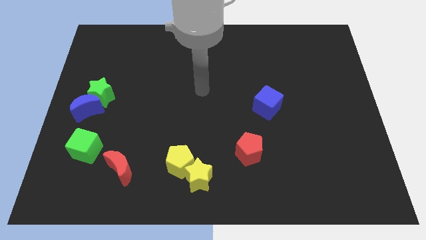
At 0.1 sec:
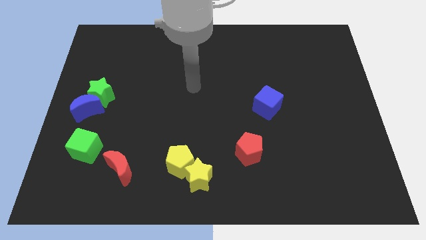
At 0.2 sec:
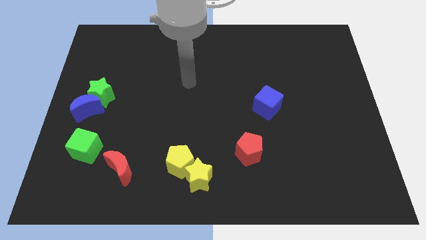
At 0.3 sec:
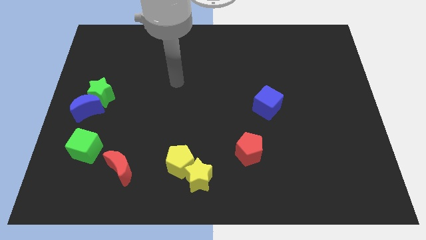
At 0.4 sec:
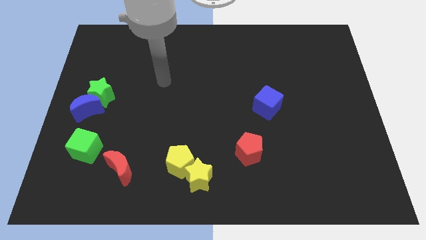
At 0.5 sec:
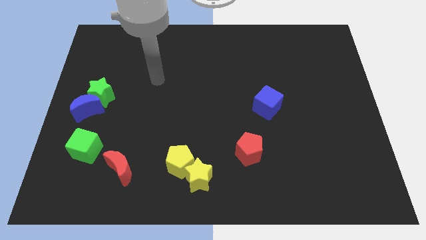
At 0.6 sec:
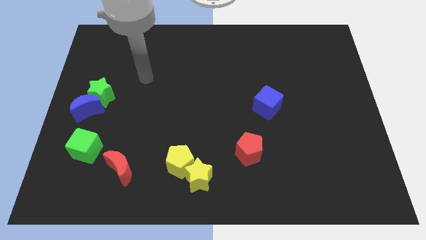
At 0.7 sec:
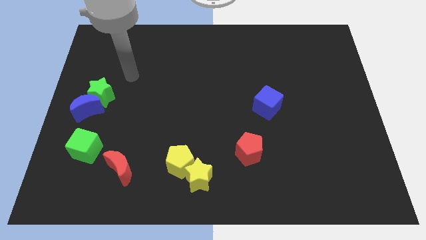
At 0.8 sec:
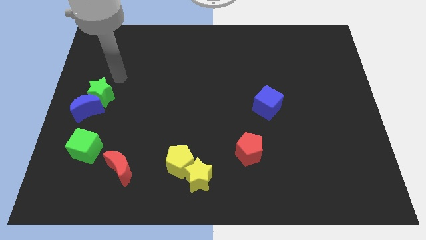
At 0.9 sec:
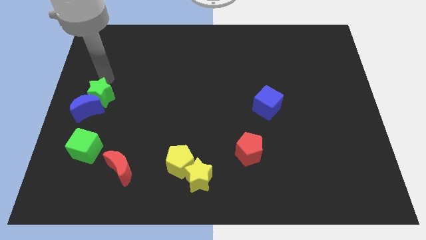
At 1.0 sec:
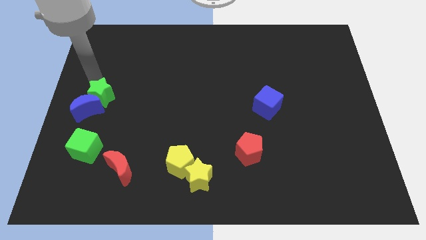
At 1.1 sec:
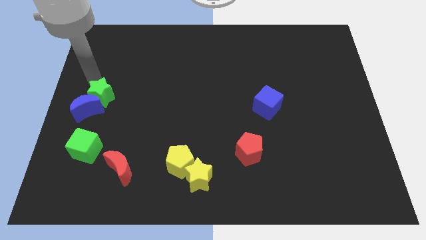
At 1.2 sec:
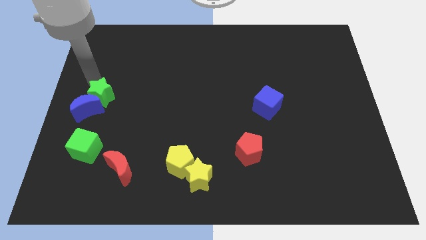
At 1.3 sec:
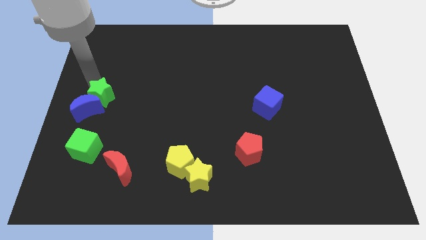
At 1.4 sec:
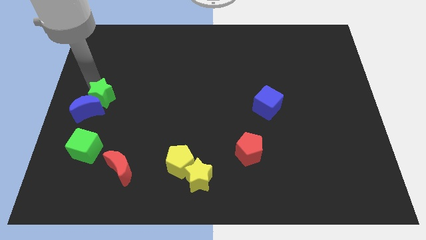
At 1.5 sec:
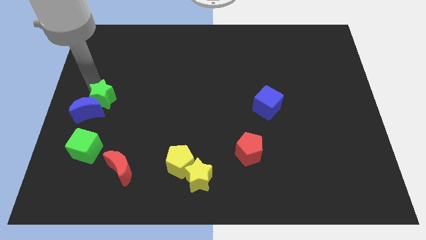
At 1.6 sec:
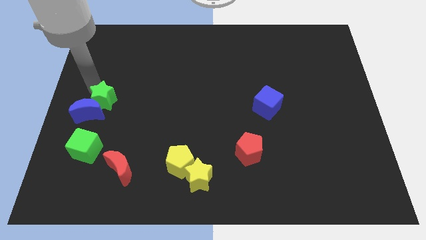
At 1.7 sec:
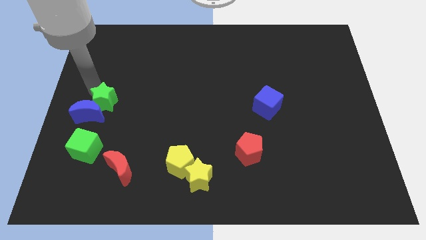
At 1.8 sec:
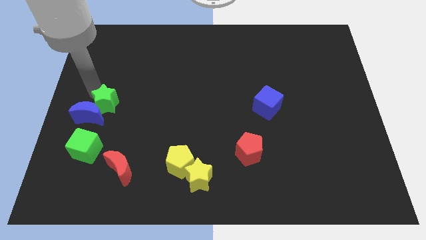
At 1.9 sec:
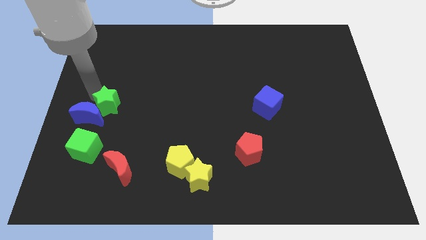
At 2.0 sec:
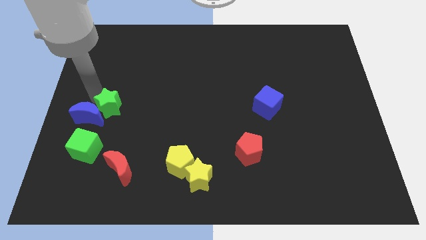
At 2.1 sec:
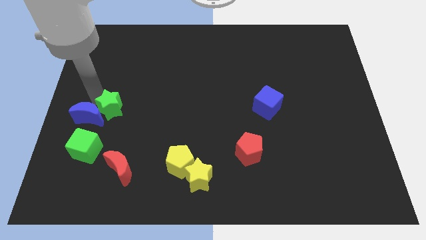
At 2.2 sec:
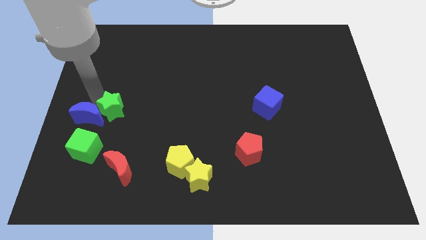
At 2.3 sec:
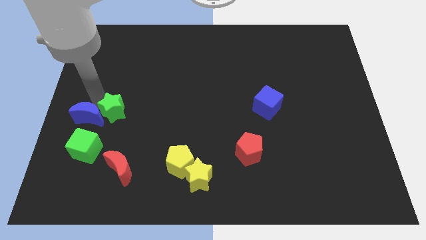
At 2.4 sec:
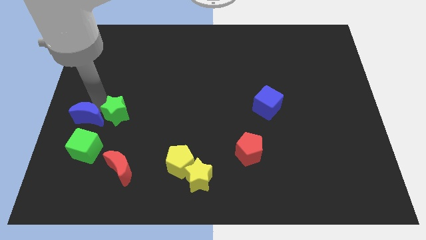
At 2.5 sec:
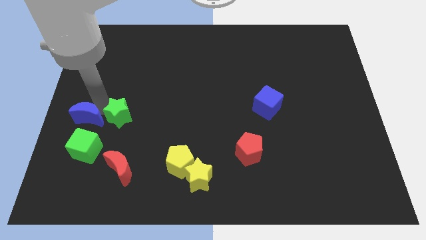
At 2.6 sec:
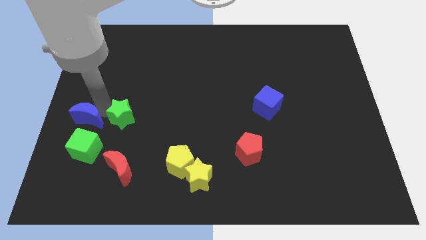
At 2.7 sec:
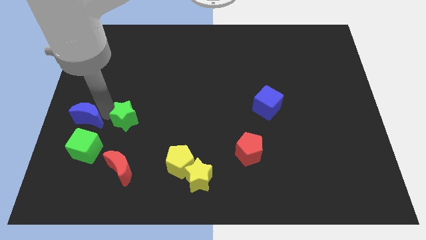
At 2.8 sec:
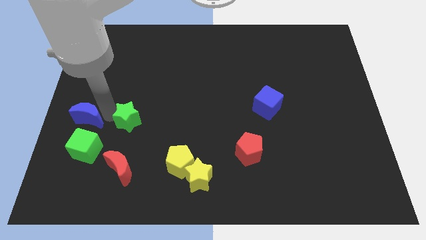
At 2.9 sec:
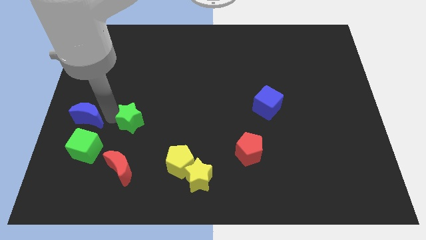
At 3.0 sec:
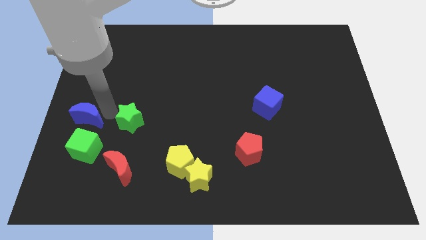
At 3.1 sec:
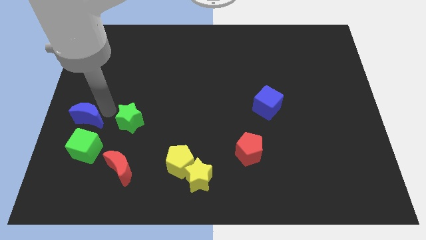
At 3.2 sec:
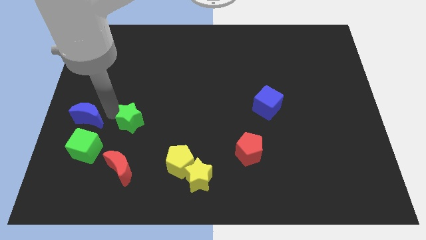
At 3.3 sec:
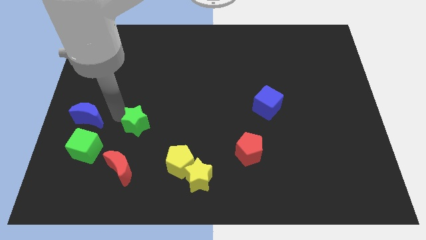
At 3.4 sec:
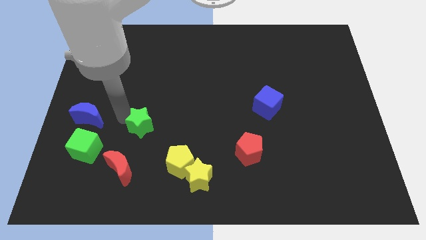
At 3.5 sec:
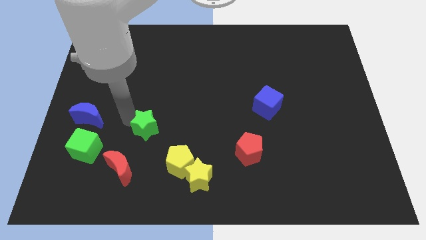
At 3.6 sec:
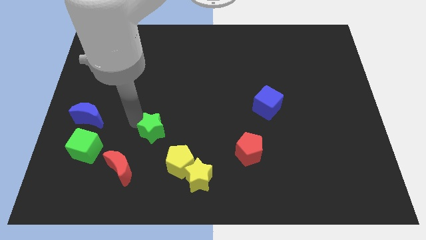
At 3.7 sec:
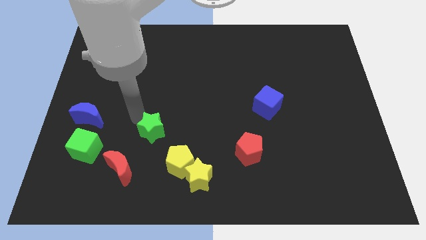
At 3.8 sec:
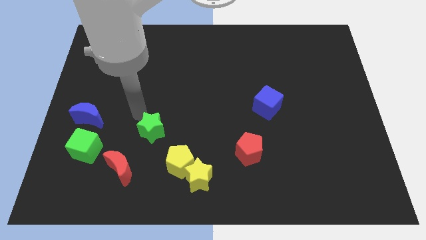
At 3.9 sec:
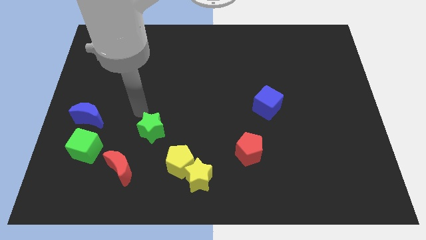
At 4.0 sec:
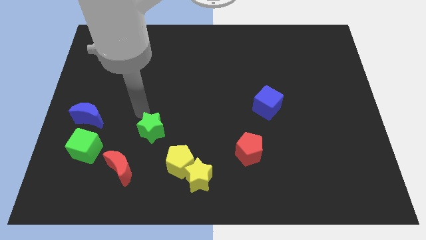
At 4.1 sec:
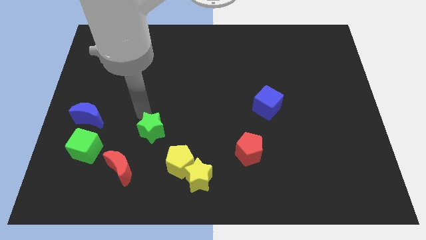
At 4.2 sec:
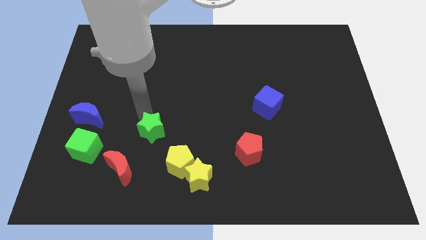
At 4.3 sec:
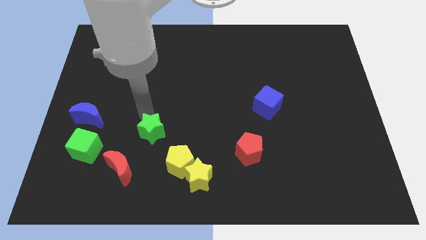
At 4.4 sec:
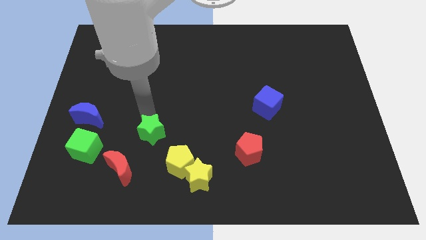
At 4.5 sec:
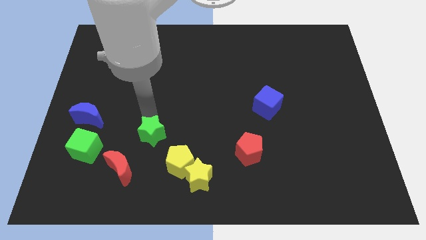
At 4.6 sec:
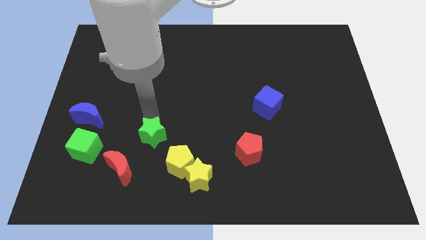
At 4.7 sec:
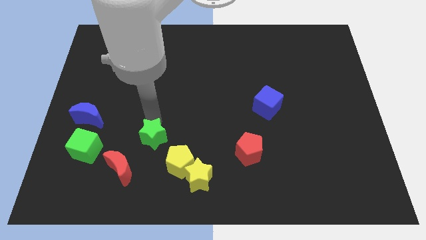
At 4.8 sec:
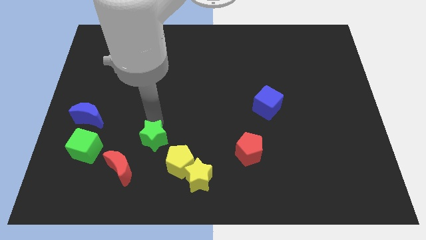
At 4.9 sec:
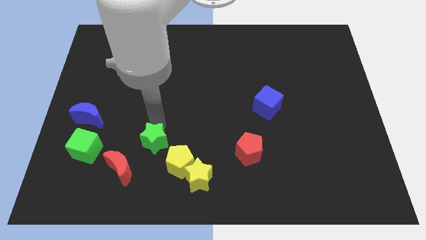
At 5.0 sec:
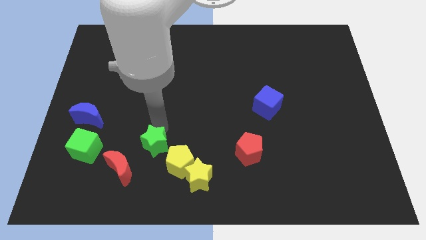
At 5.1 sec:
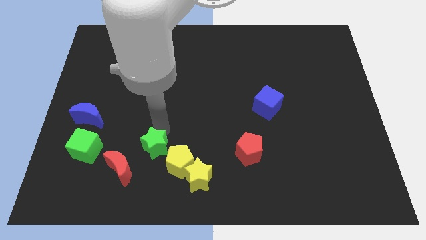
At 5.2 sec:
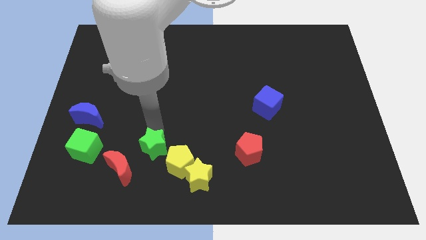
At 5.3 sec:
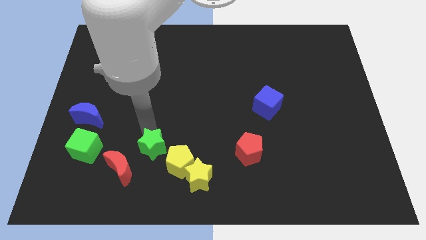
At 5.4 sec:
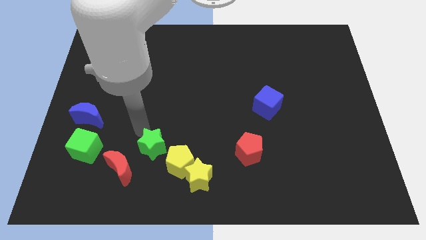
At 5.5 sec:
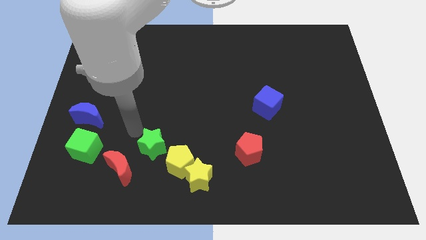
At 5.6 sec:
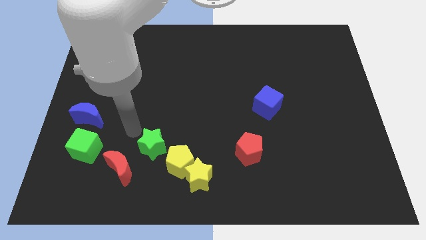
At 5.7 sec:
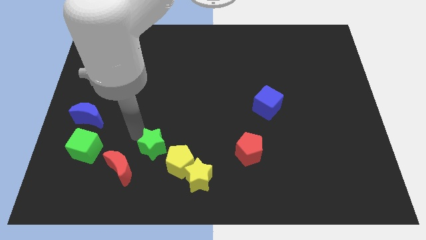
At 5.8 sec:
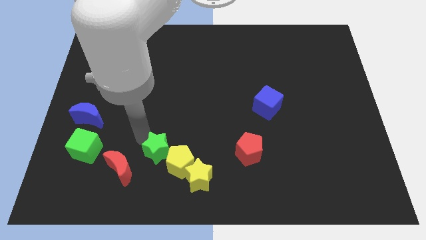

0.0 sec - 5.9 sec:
slide the green star to the yellow pentagon
